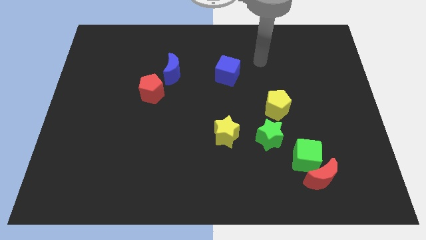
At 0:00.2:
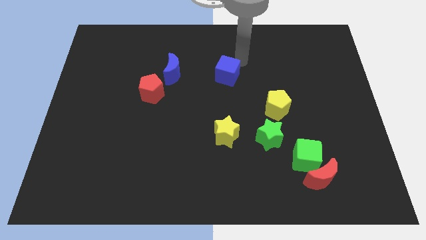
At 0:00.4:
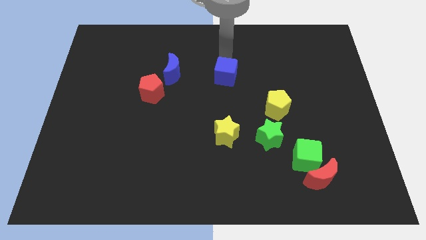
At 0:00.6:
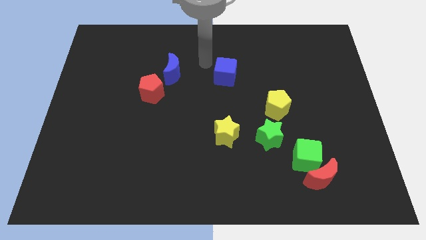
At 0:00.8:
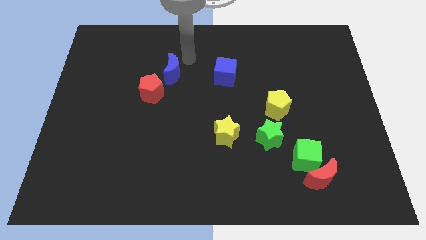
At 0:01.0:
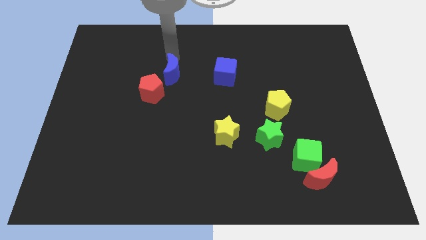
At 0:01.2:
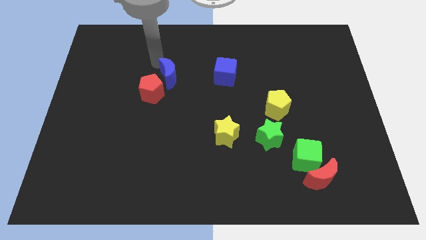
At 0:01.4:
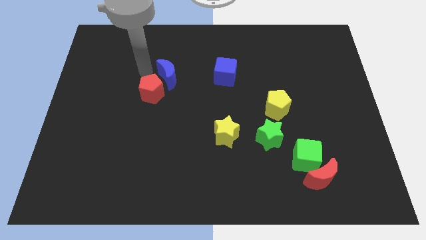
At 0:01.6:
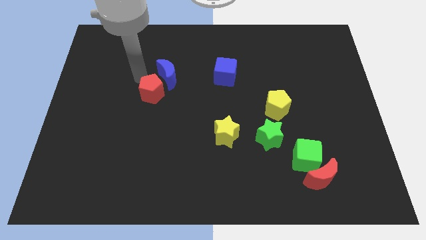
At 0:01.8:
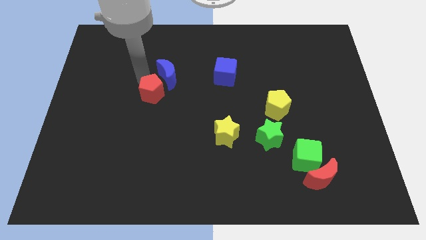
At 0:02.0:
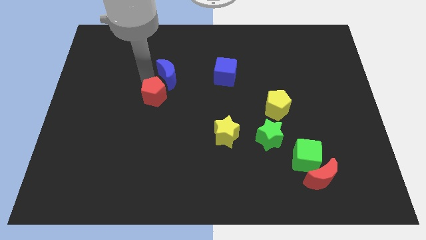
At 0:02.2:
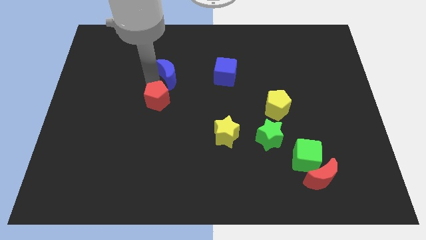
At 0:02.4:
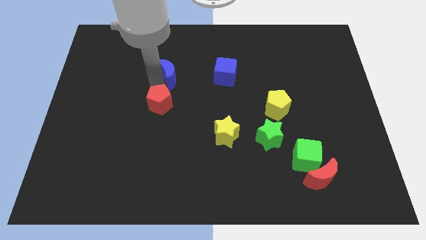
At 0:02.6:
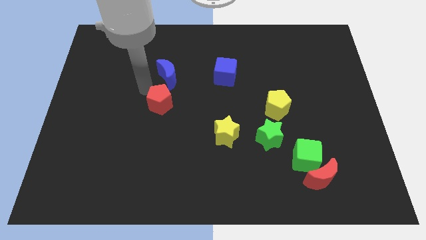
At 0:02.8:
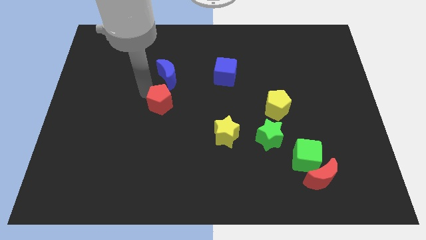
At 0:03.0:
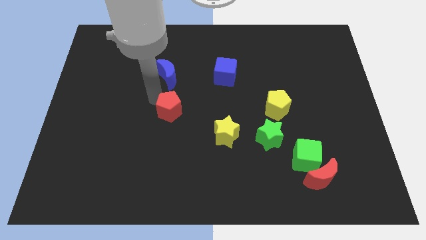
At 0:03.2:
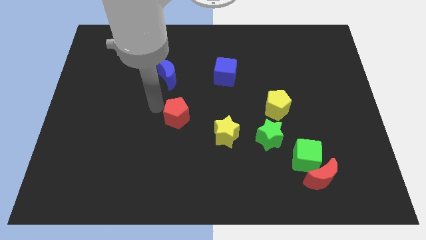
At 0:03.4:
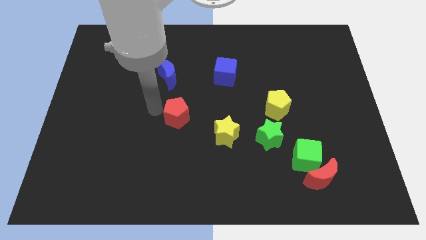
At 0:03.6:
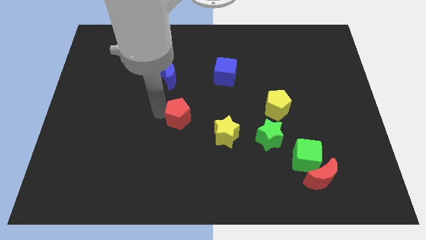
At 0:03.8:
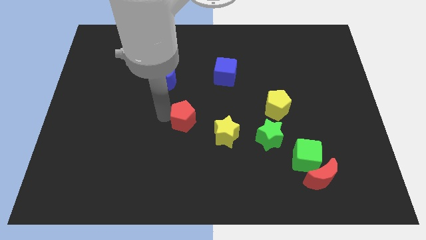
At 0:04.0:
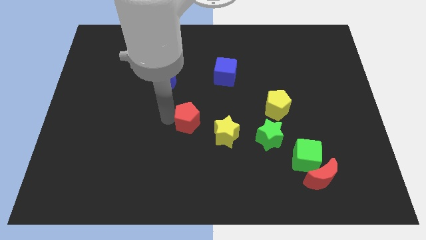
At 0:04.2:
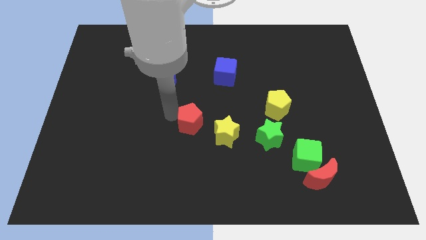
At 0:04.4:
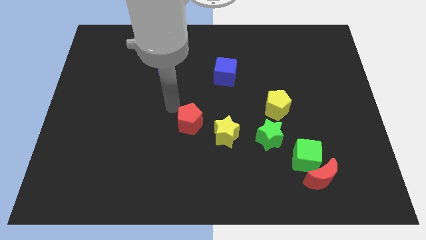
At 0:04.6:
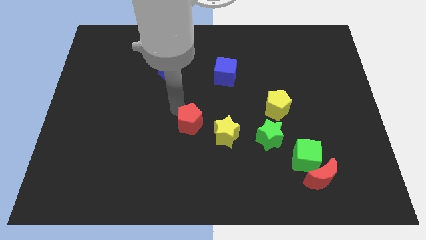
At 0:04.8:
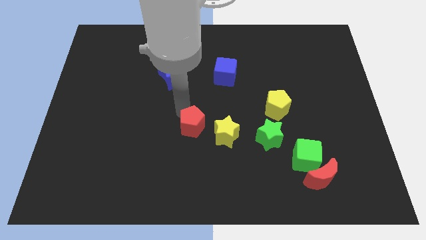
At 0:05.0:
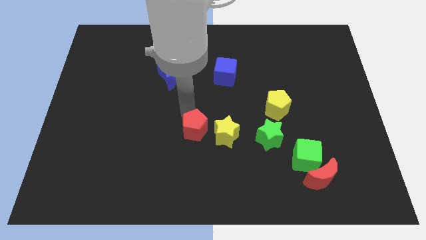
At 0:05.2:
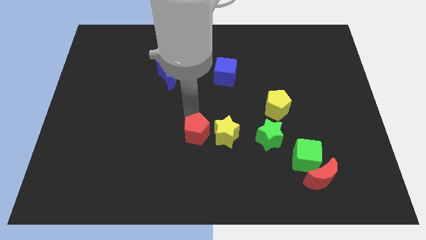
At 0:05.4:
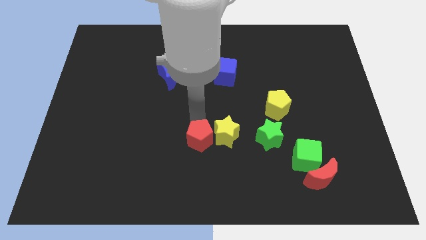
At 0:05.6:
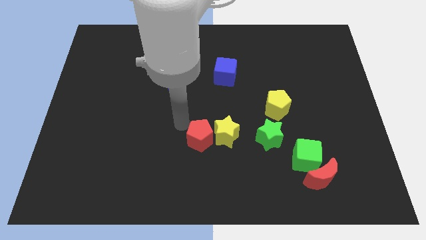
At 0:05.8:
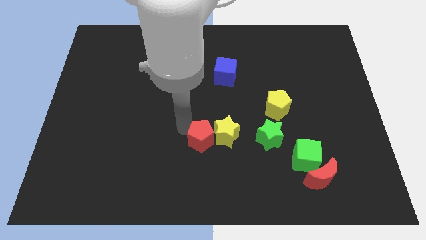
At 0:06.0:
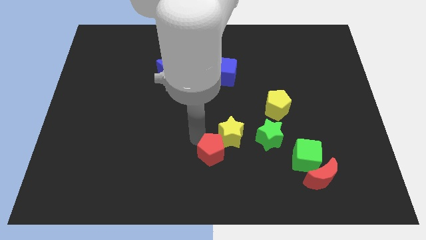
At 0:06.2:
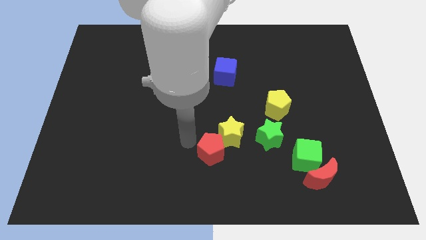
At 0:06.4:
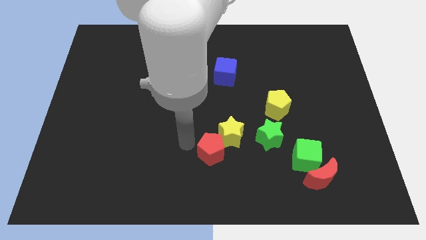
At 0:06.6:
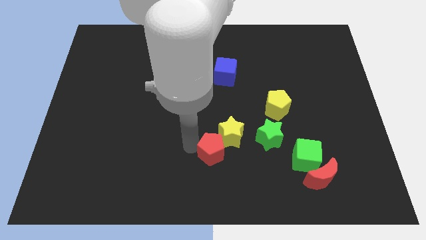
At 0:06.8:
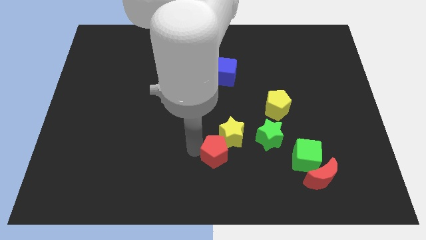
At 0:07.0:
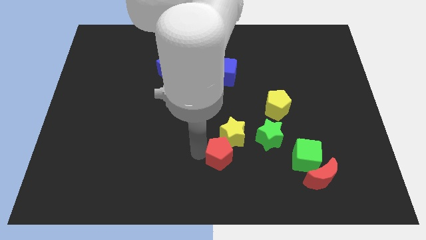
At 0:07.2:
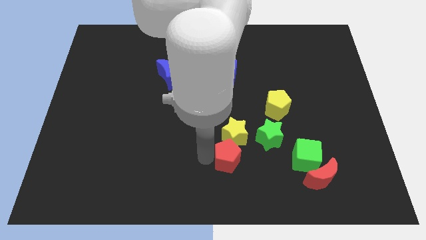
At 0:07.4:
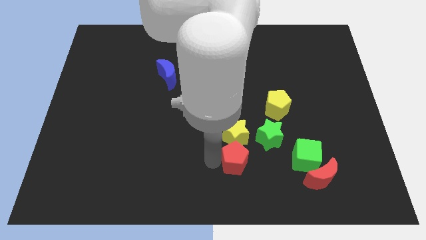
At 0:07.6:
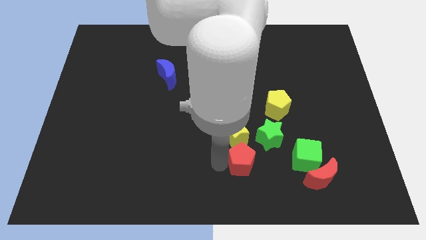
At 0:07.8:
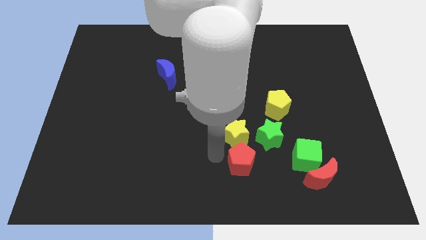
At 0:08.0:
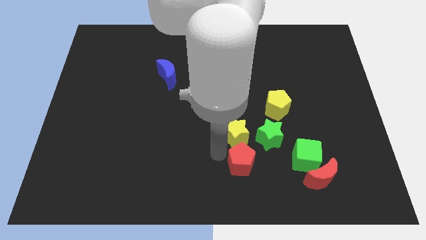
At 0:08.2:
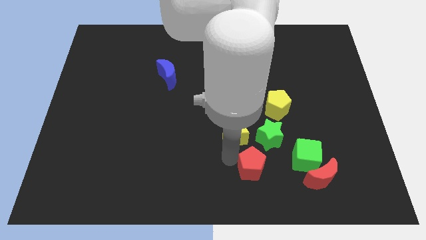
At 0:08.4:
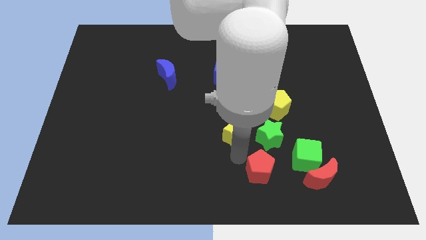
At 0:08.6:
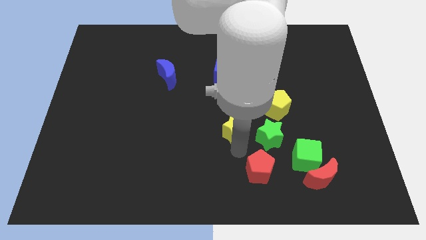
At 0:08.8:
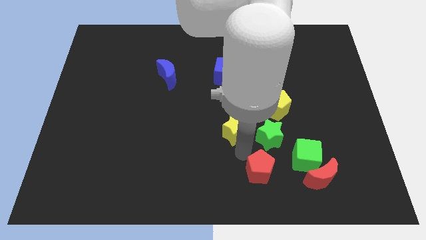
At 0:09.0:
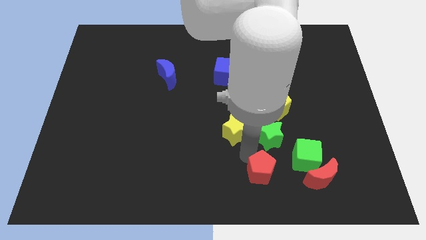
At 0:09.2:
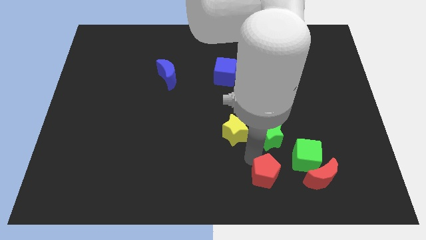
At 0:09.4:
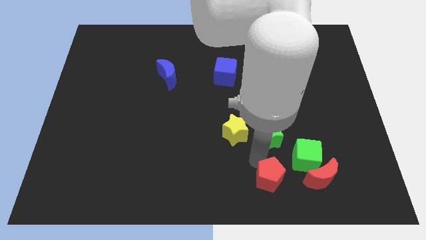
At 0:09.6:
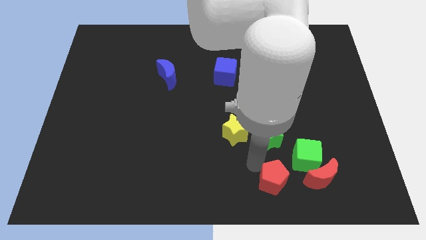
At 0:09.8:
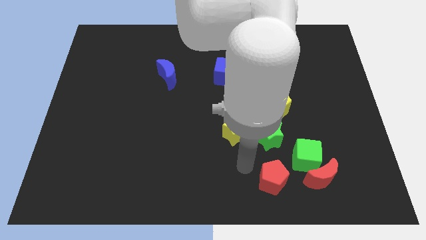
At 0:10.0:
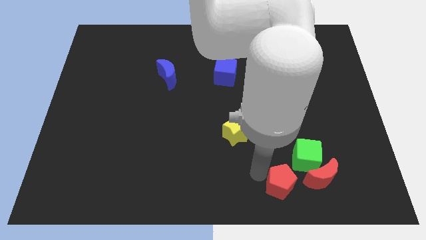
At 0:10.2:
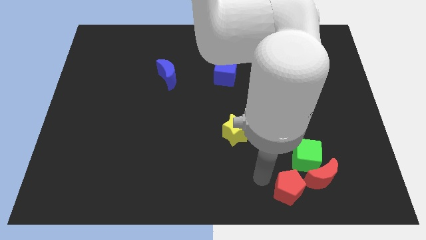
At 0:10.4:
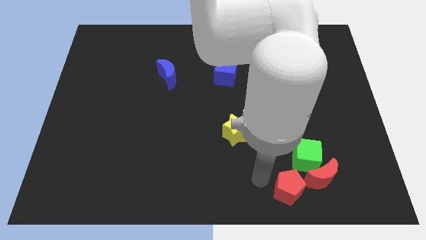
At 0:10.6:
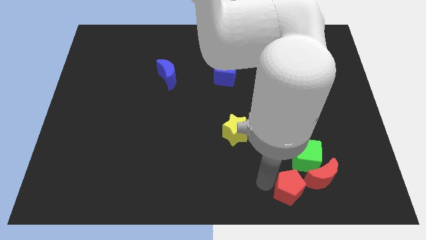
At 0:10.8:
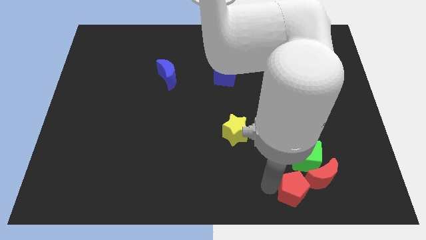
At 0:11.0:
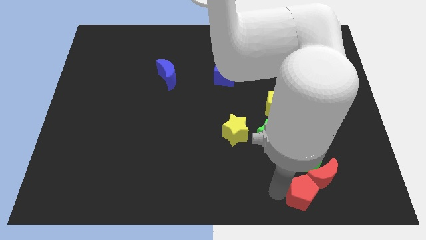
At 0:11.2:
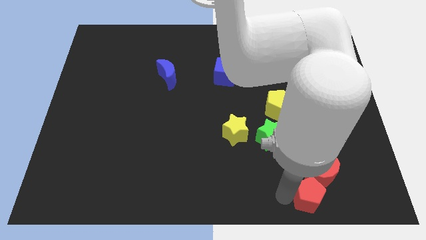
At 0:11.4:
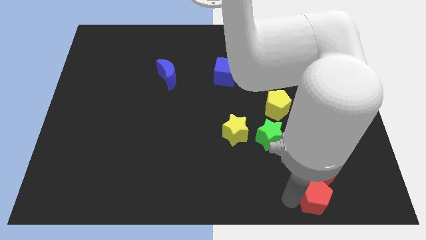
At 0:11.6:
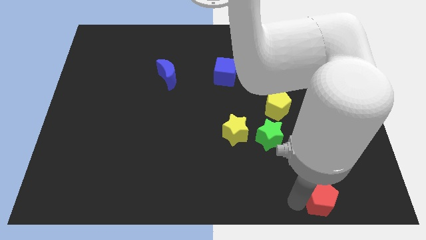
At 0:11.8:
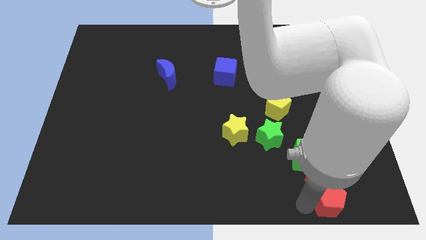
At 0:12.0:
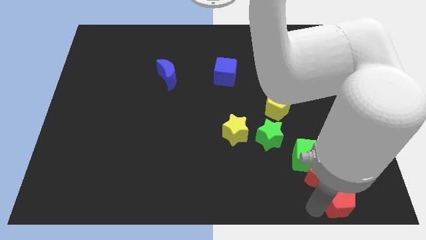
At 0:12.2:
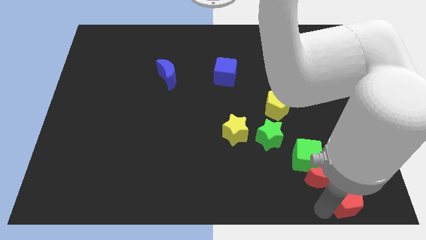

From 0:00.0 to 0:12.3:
push the red pentagon to the lower right corner

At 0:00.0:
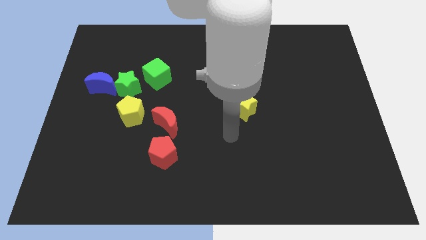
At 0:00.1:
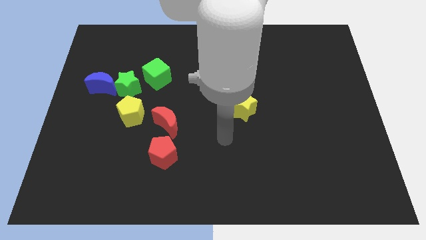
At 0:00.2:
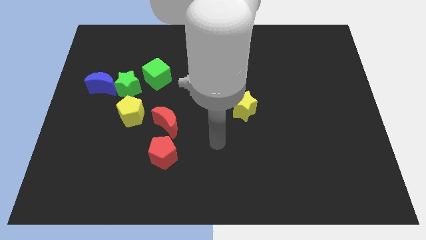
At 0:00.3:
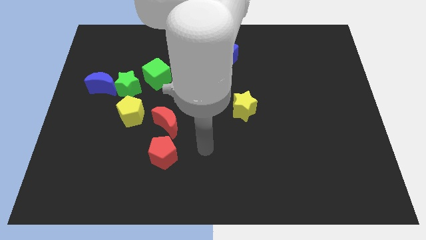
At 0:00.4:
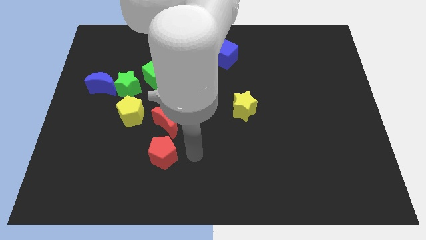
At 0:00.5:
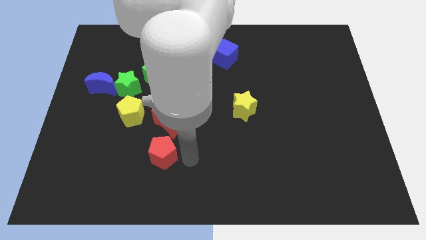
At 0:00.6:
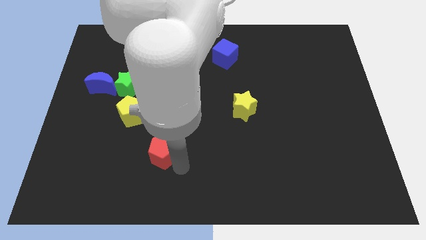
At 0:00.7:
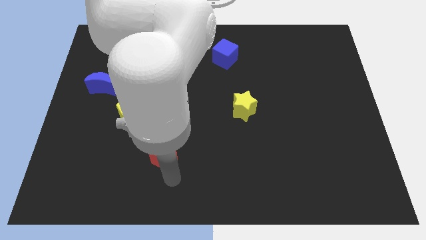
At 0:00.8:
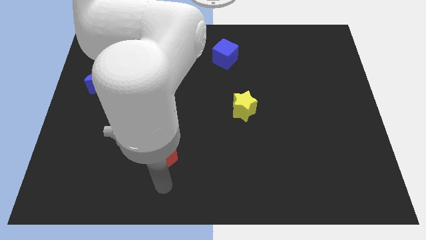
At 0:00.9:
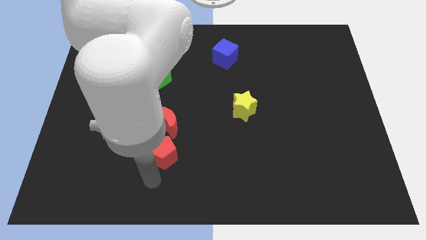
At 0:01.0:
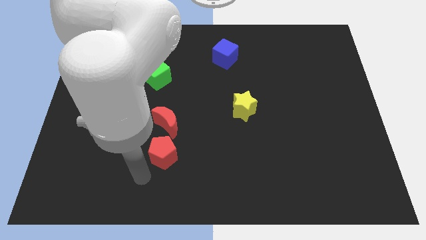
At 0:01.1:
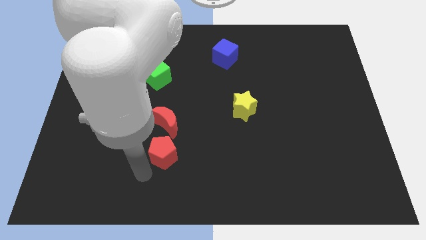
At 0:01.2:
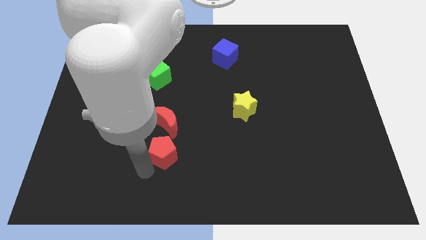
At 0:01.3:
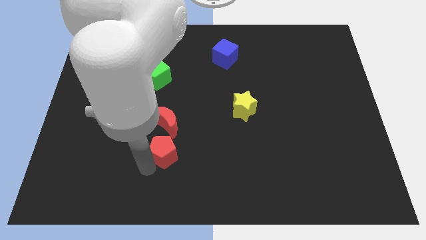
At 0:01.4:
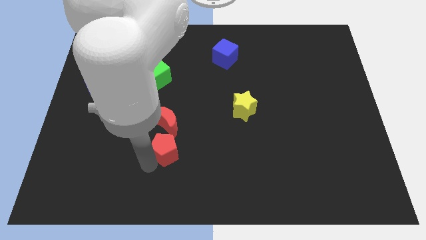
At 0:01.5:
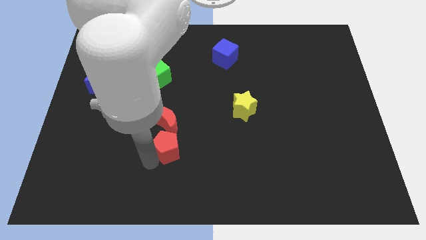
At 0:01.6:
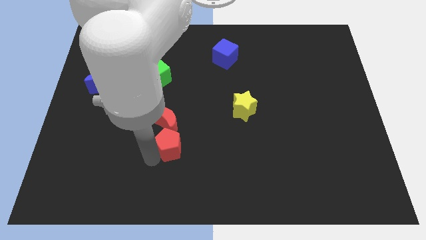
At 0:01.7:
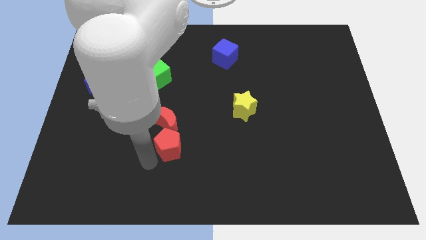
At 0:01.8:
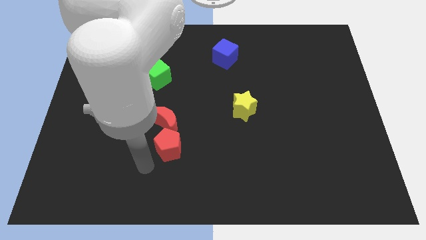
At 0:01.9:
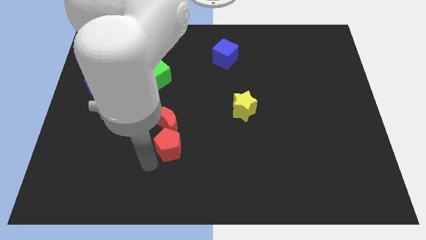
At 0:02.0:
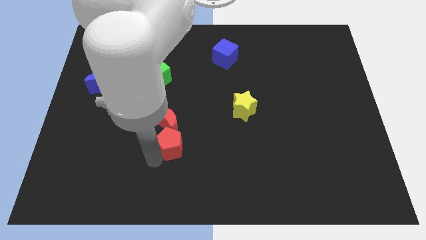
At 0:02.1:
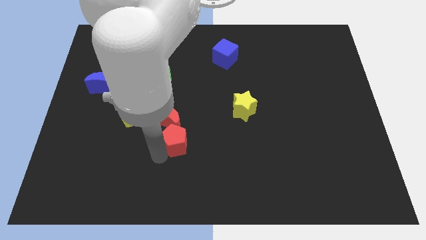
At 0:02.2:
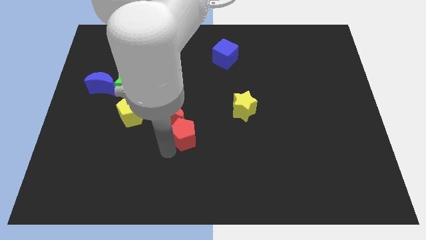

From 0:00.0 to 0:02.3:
slide the red pentagon to the middle
